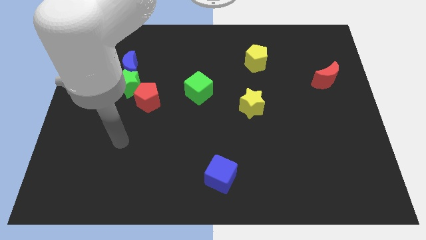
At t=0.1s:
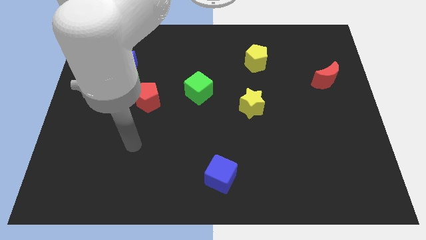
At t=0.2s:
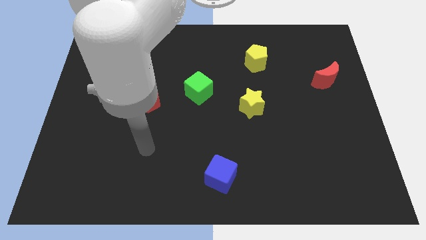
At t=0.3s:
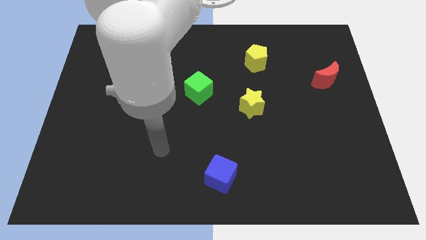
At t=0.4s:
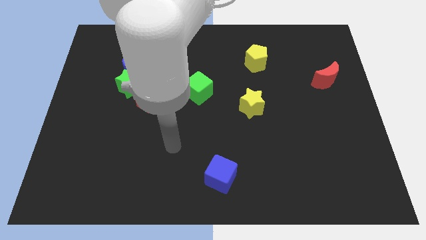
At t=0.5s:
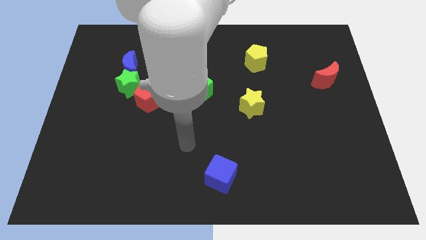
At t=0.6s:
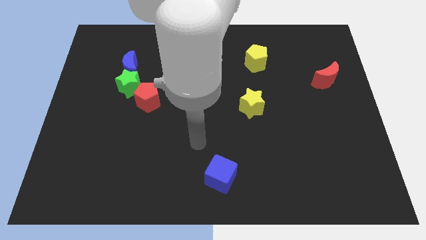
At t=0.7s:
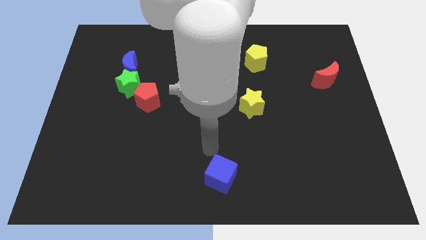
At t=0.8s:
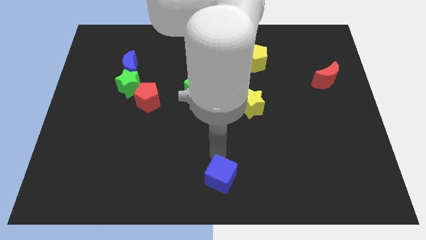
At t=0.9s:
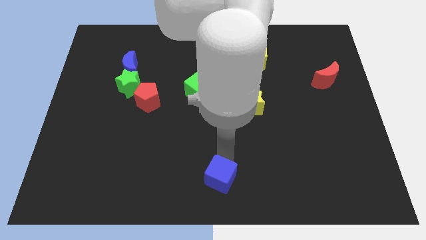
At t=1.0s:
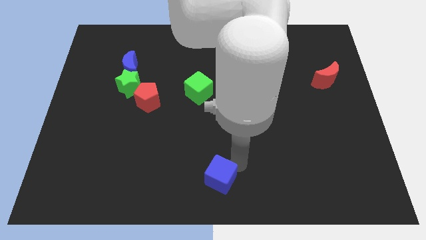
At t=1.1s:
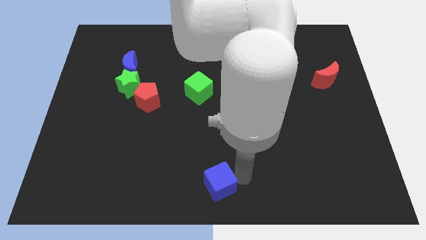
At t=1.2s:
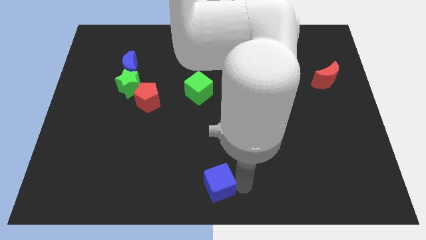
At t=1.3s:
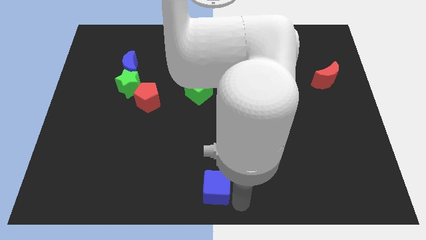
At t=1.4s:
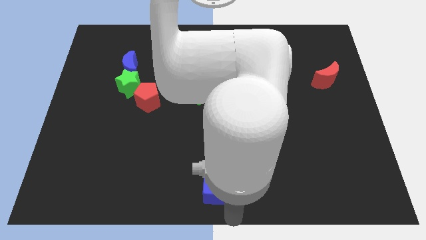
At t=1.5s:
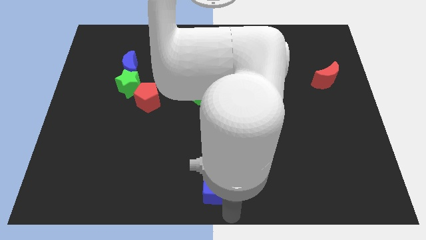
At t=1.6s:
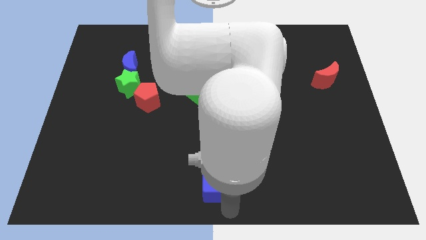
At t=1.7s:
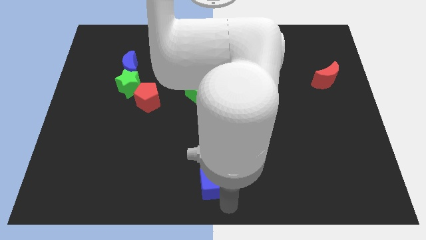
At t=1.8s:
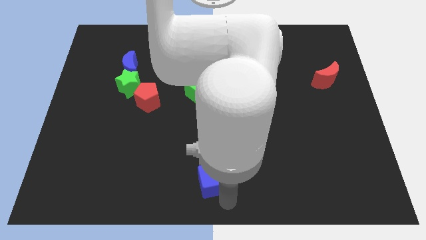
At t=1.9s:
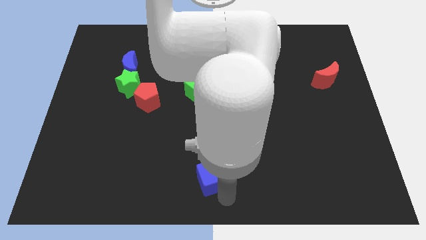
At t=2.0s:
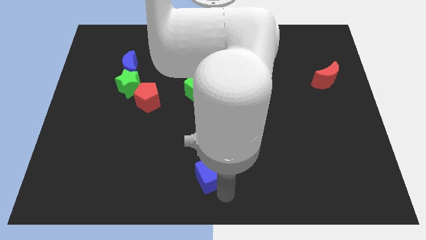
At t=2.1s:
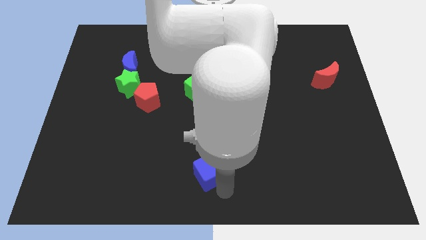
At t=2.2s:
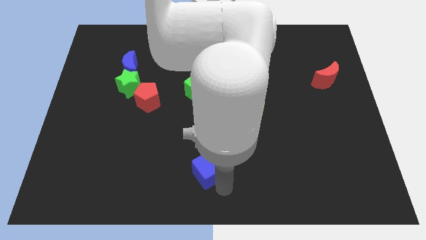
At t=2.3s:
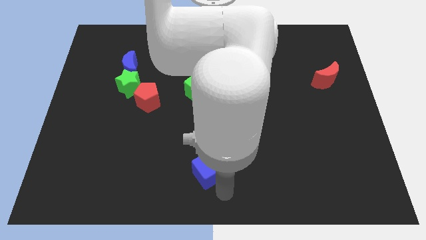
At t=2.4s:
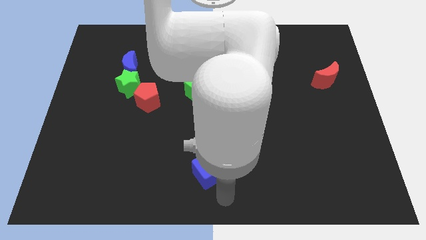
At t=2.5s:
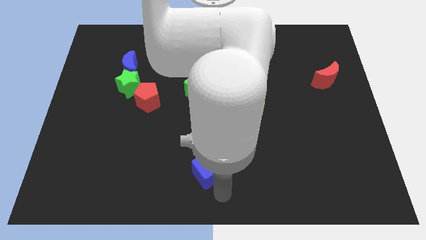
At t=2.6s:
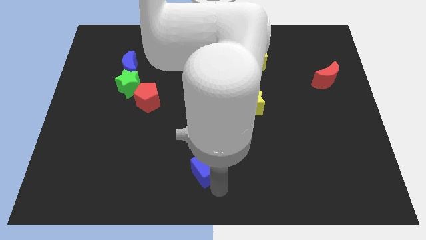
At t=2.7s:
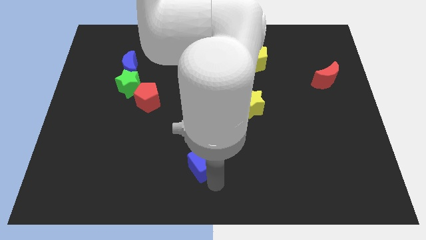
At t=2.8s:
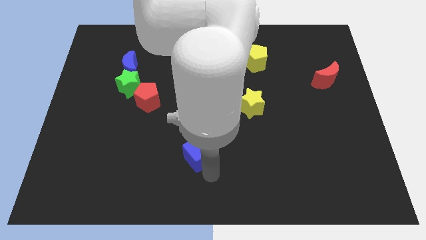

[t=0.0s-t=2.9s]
push the blue cube up and to the left diagonally a little

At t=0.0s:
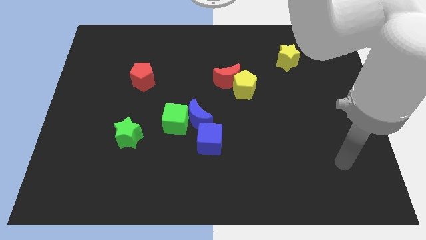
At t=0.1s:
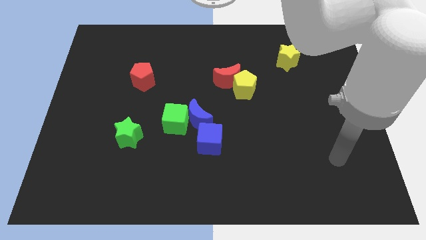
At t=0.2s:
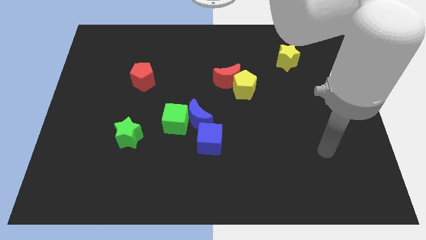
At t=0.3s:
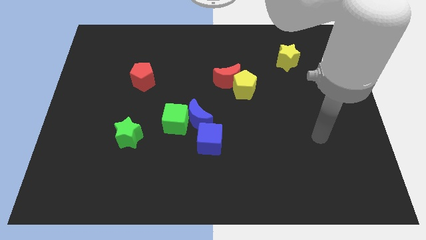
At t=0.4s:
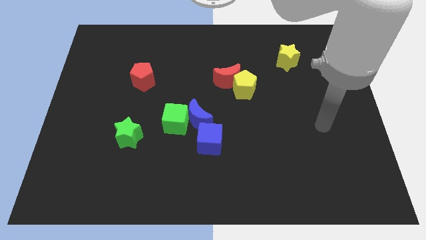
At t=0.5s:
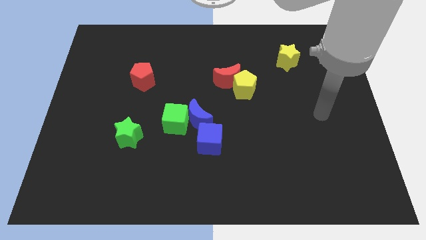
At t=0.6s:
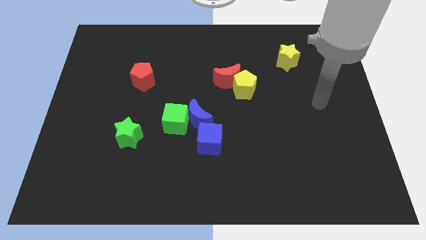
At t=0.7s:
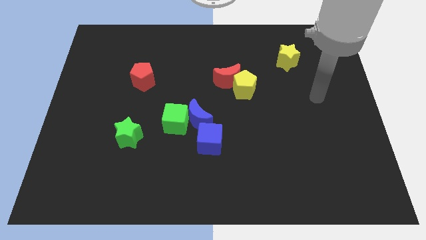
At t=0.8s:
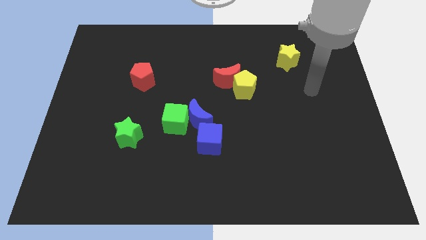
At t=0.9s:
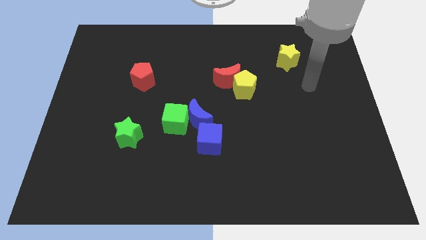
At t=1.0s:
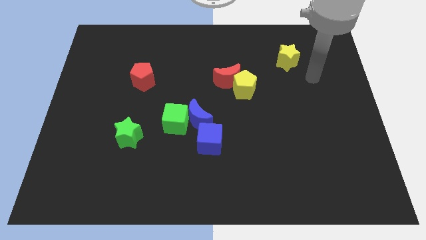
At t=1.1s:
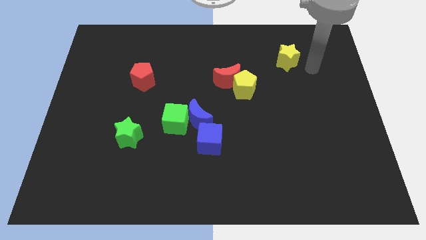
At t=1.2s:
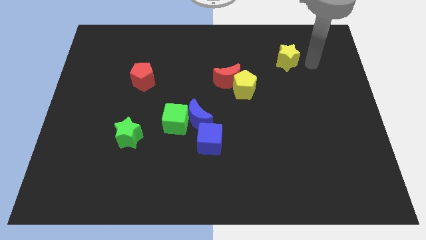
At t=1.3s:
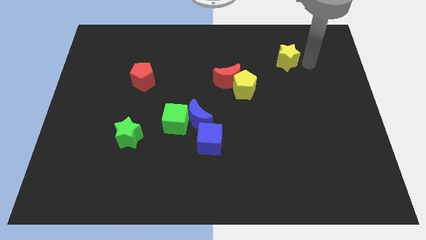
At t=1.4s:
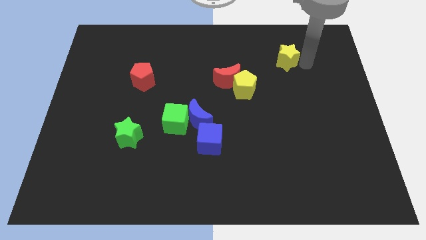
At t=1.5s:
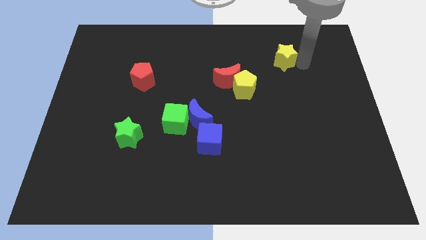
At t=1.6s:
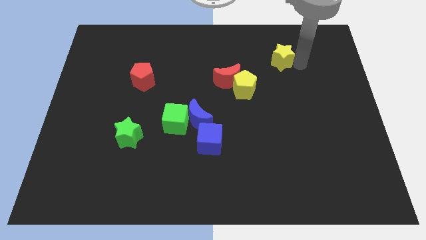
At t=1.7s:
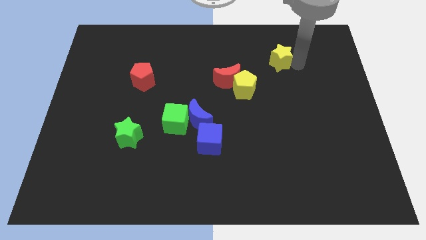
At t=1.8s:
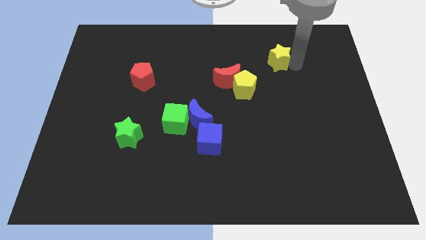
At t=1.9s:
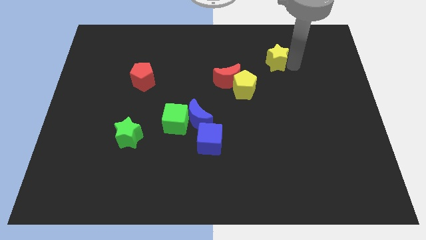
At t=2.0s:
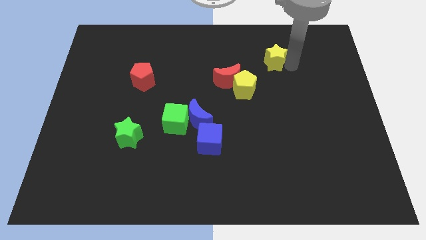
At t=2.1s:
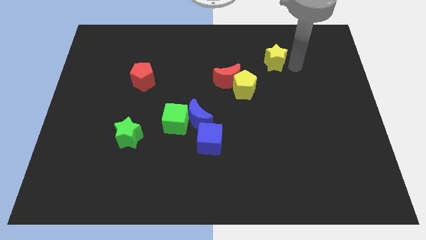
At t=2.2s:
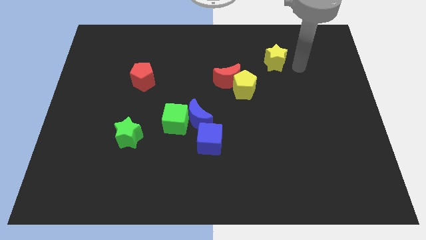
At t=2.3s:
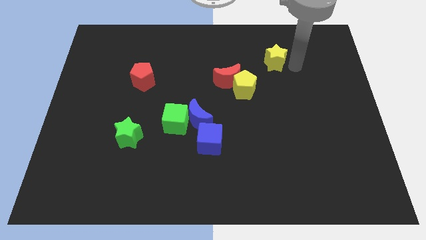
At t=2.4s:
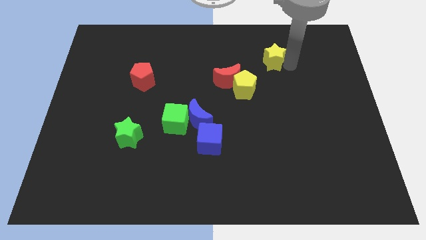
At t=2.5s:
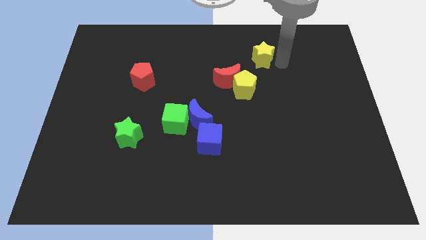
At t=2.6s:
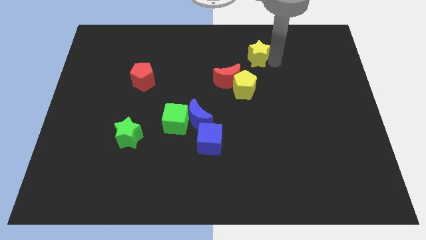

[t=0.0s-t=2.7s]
slightly push the yellow star left

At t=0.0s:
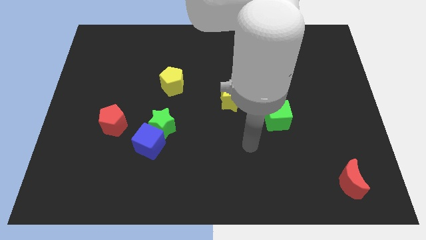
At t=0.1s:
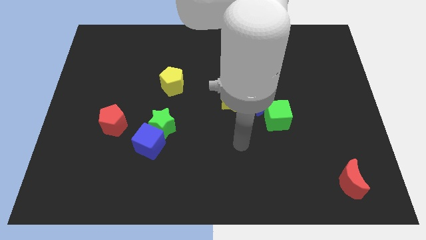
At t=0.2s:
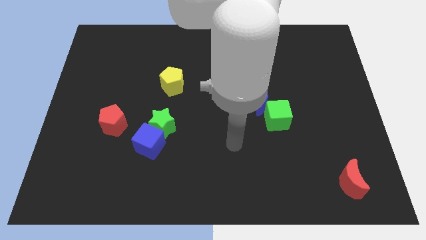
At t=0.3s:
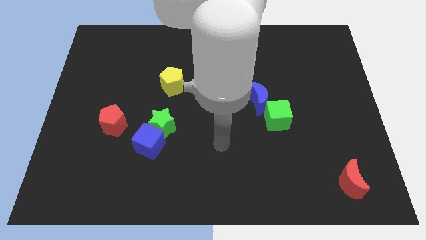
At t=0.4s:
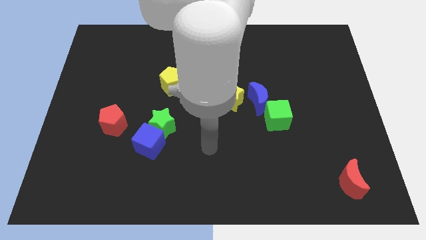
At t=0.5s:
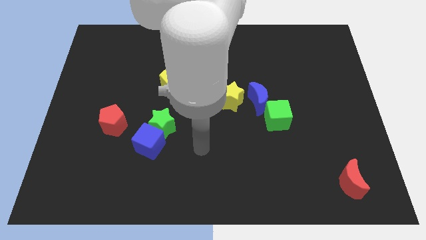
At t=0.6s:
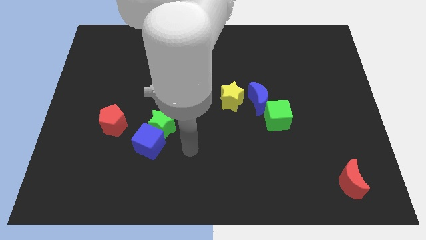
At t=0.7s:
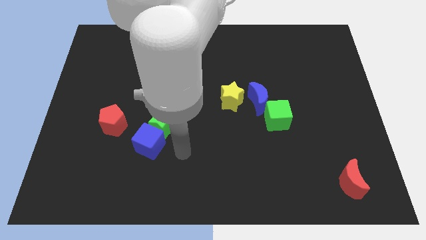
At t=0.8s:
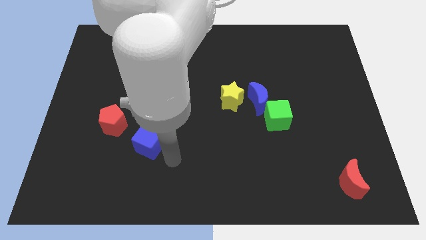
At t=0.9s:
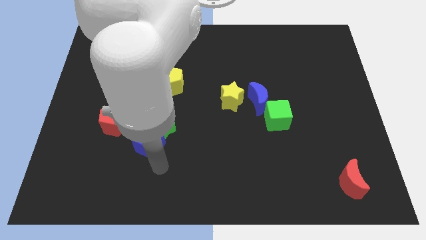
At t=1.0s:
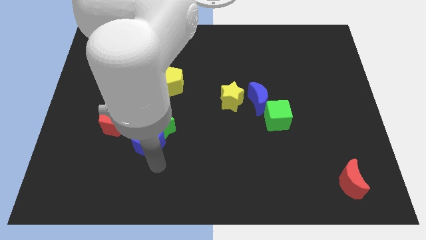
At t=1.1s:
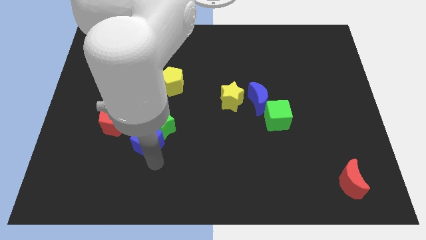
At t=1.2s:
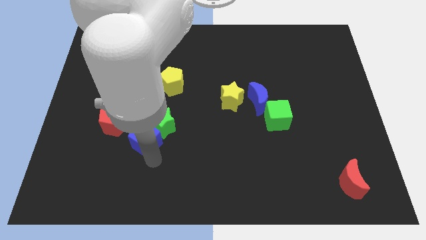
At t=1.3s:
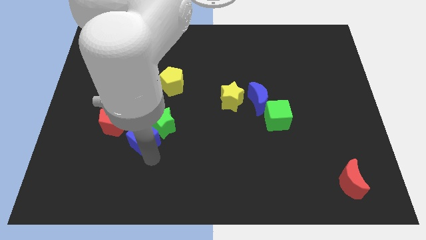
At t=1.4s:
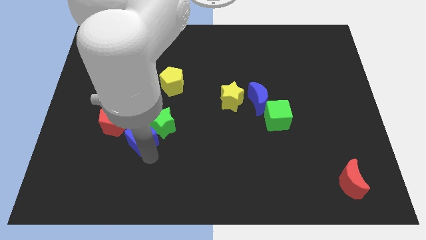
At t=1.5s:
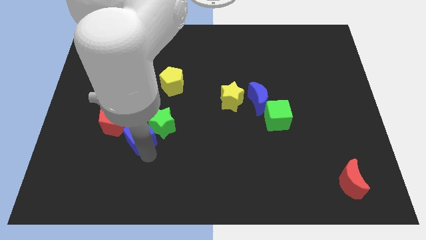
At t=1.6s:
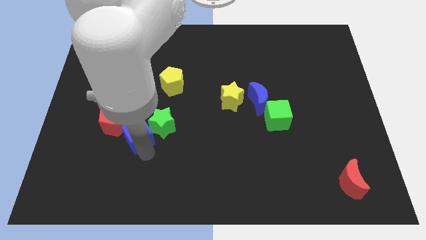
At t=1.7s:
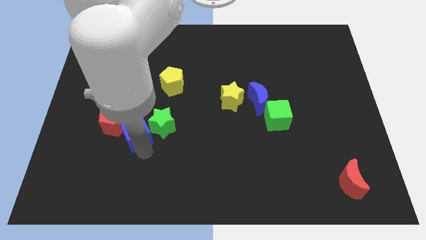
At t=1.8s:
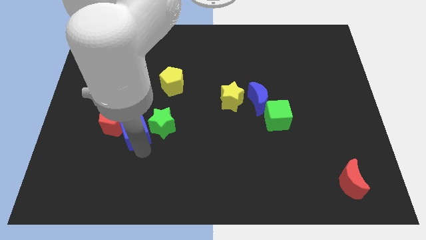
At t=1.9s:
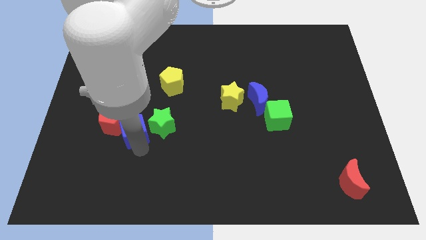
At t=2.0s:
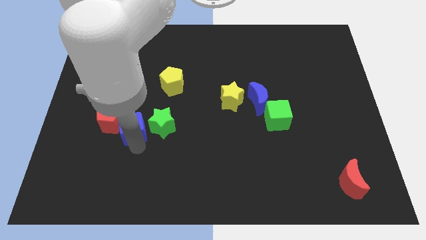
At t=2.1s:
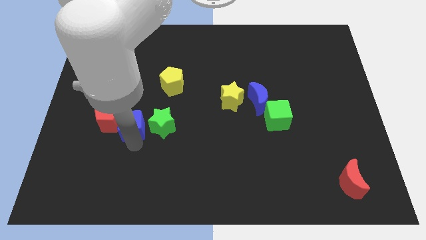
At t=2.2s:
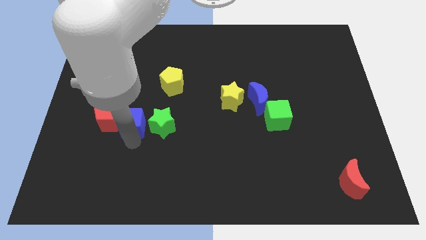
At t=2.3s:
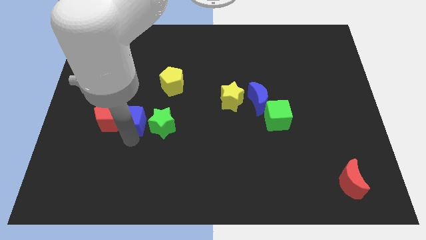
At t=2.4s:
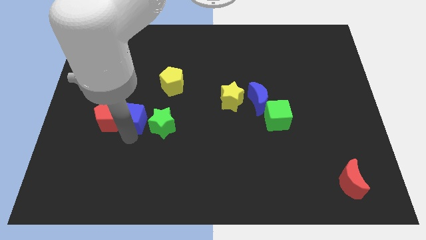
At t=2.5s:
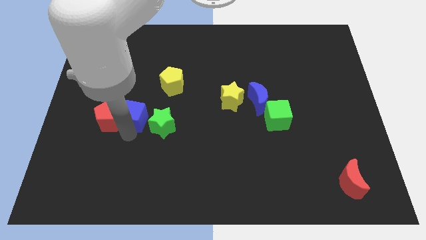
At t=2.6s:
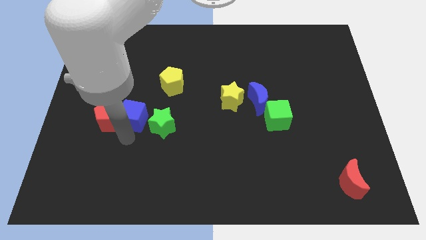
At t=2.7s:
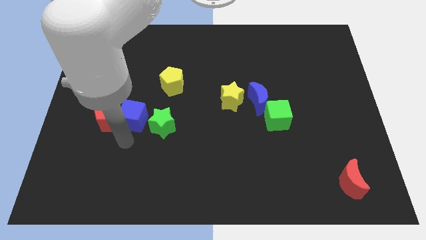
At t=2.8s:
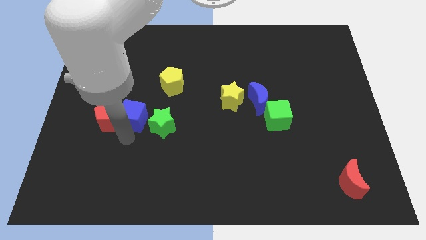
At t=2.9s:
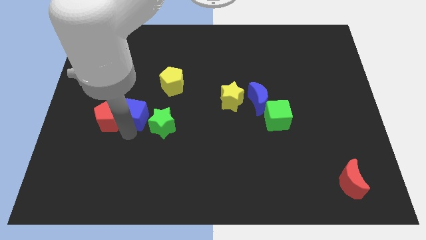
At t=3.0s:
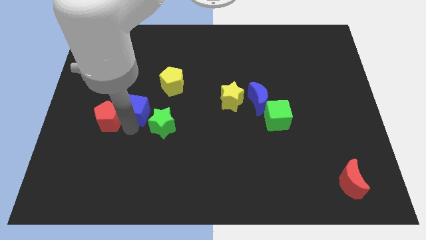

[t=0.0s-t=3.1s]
slide the blue cube up a little

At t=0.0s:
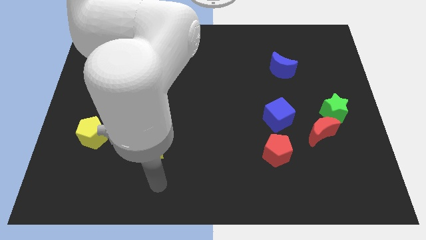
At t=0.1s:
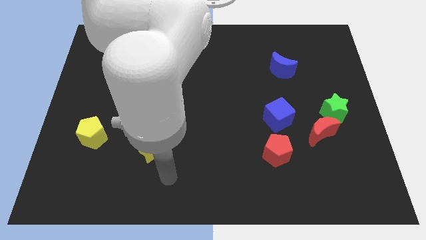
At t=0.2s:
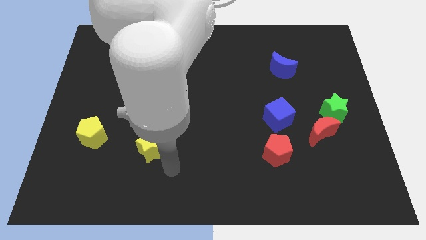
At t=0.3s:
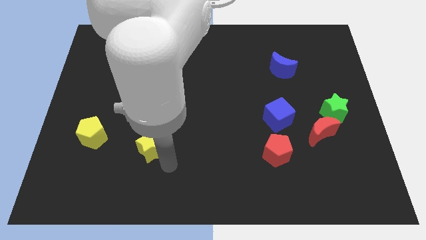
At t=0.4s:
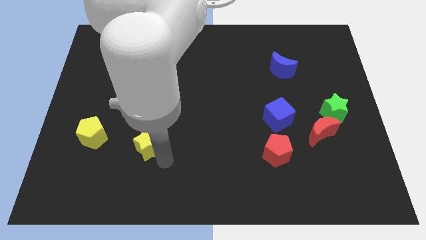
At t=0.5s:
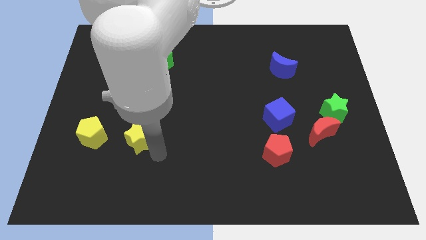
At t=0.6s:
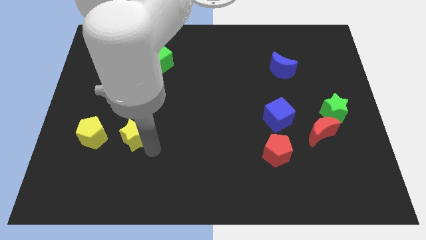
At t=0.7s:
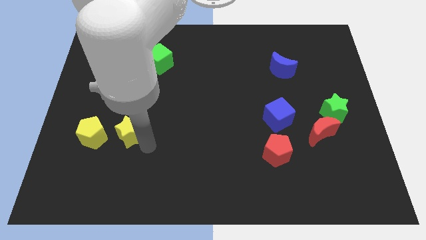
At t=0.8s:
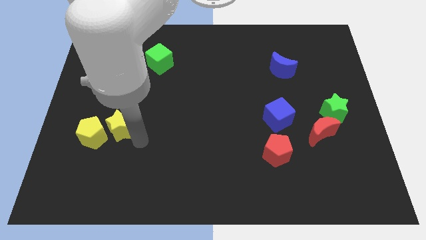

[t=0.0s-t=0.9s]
push the yellow star diagonally upwards and left a bit
